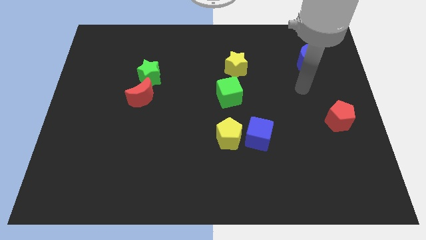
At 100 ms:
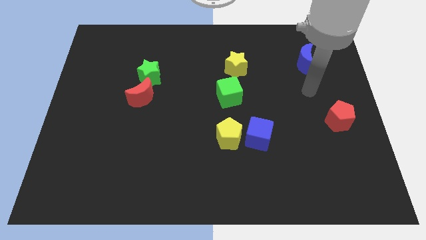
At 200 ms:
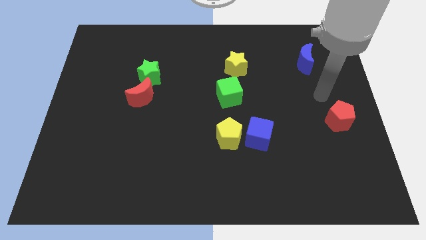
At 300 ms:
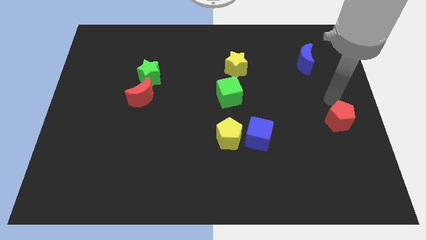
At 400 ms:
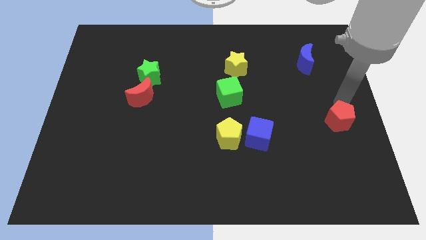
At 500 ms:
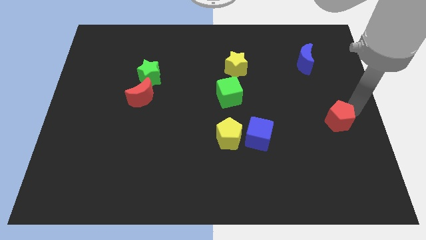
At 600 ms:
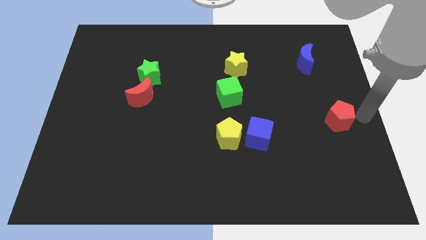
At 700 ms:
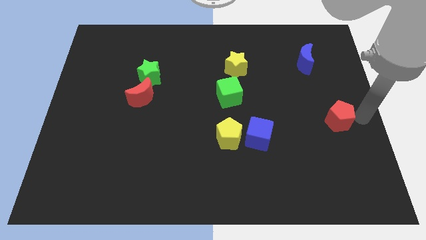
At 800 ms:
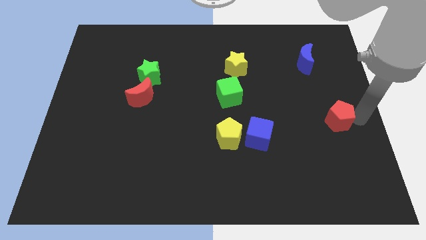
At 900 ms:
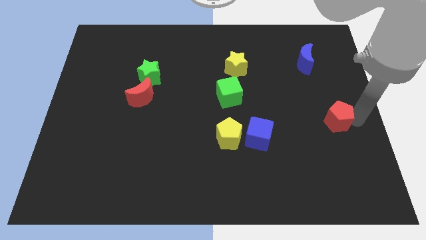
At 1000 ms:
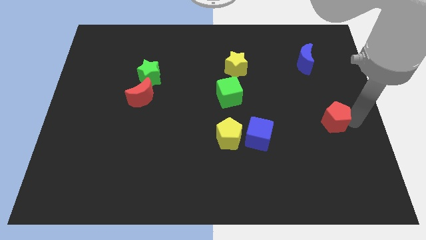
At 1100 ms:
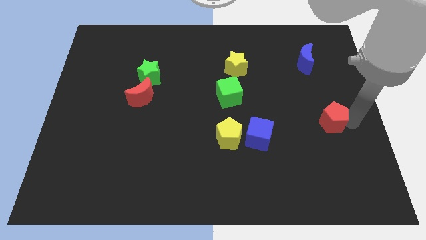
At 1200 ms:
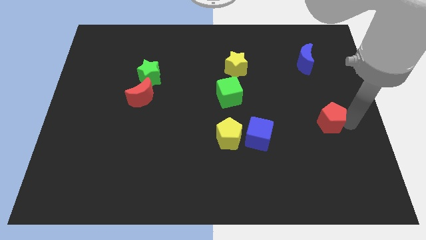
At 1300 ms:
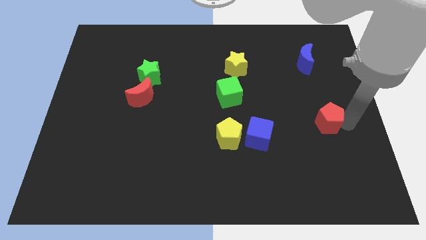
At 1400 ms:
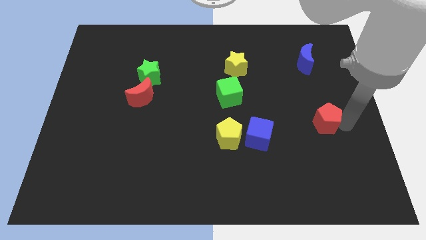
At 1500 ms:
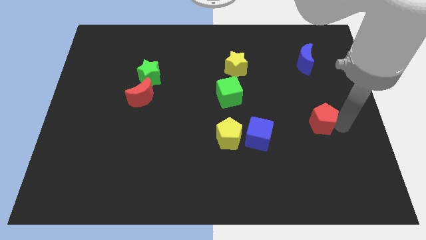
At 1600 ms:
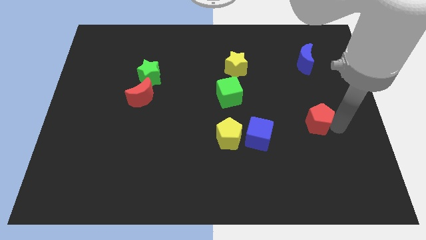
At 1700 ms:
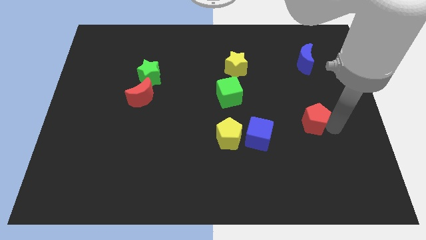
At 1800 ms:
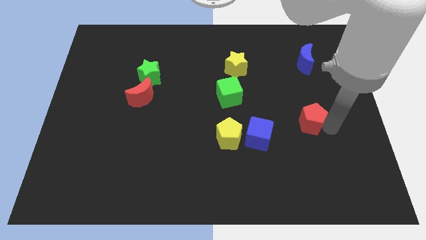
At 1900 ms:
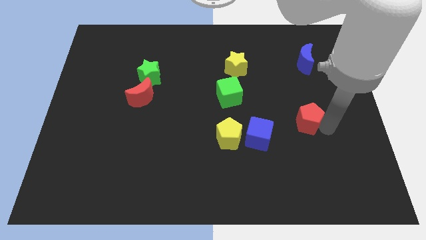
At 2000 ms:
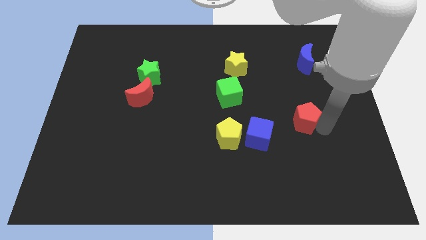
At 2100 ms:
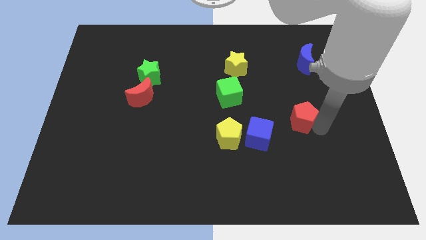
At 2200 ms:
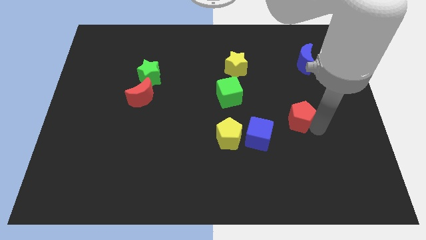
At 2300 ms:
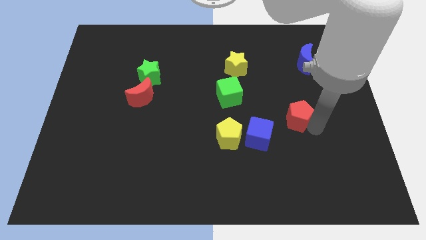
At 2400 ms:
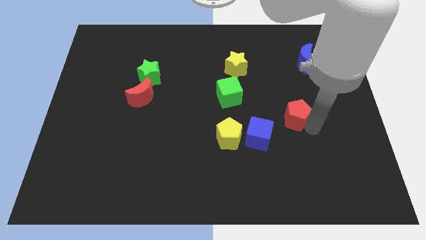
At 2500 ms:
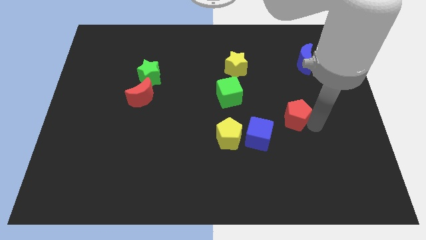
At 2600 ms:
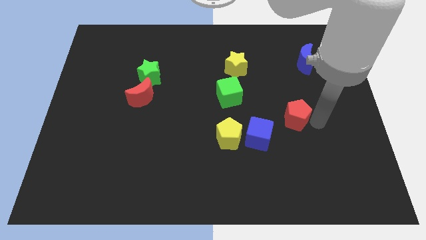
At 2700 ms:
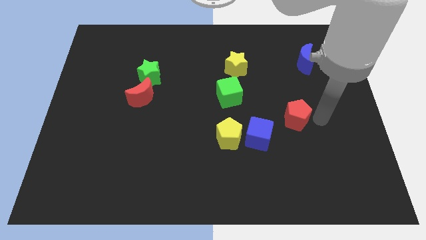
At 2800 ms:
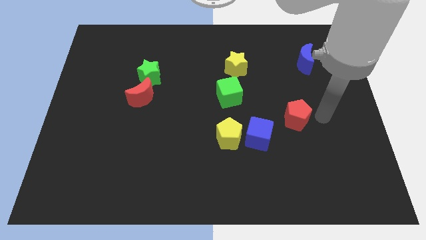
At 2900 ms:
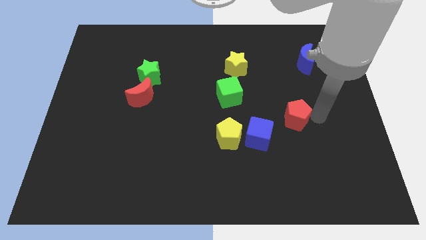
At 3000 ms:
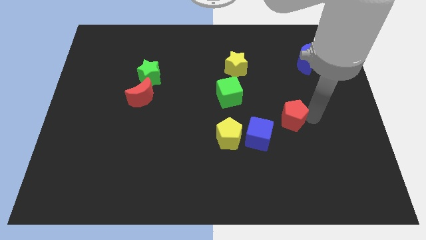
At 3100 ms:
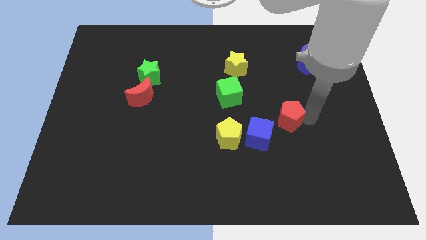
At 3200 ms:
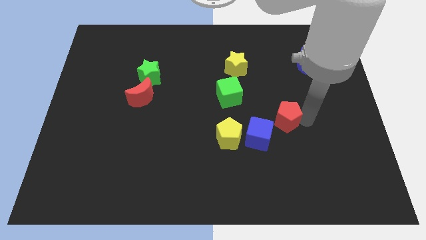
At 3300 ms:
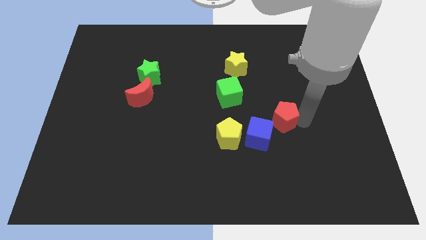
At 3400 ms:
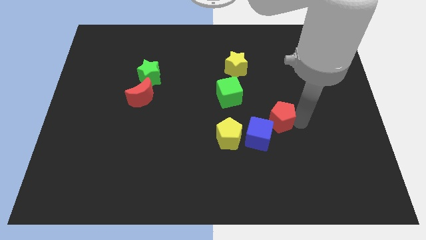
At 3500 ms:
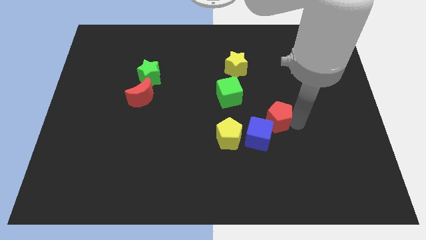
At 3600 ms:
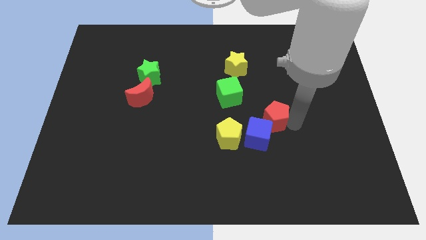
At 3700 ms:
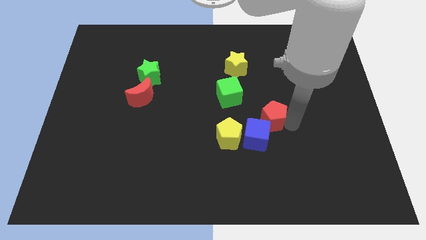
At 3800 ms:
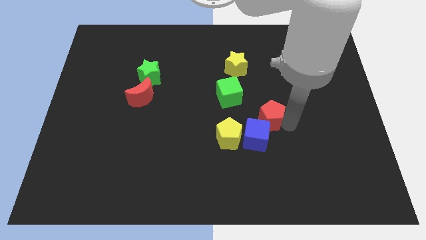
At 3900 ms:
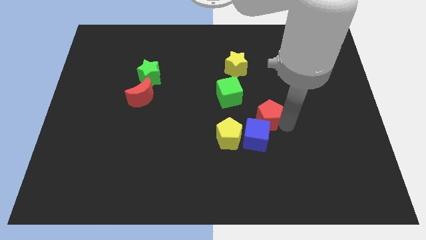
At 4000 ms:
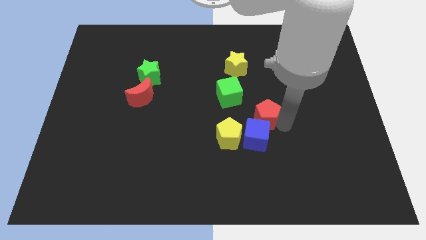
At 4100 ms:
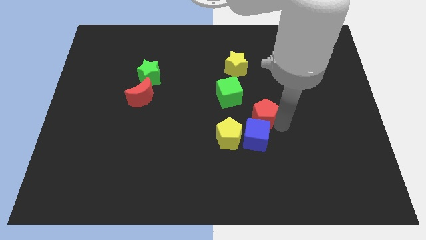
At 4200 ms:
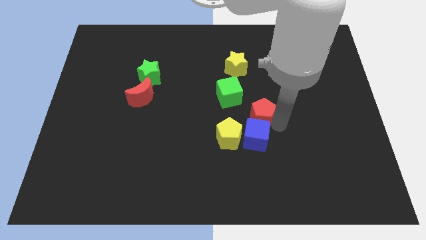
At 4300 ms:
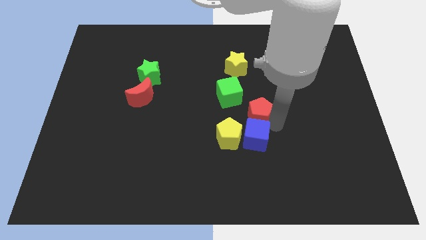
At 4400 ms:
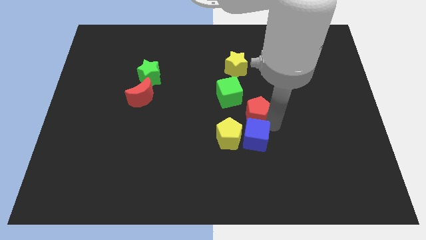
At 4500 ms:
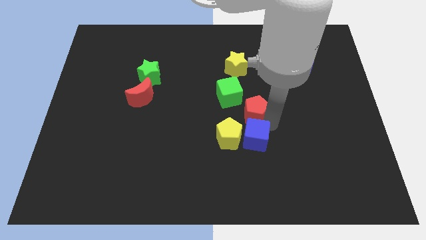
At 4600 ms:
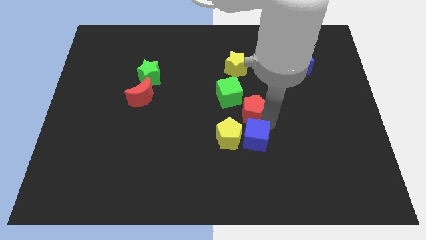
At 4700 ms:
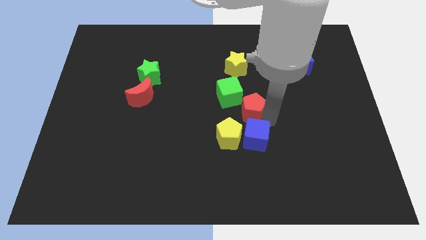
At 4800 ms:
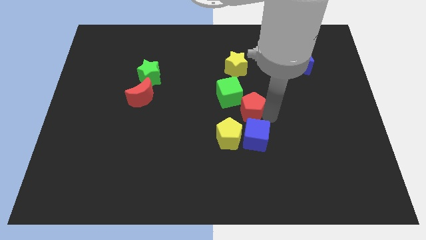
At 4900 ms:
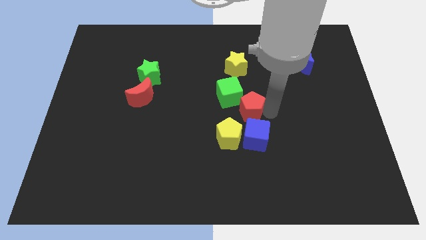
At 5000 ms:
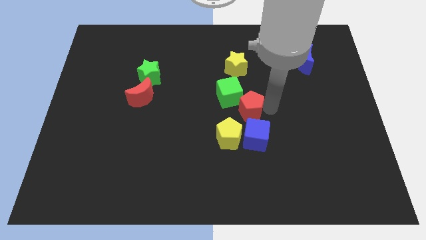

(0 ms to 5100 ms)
slide the red pentagon to the left

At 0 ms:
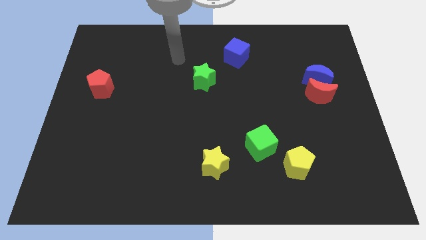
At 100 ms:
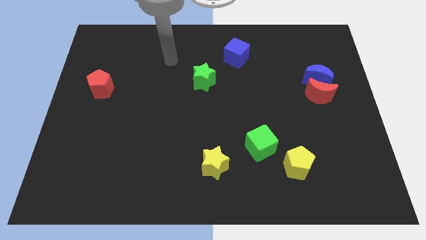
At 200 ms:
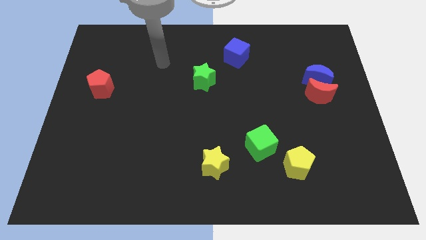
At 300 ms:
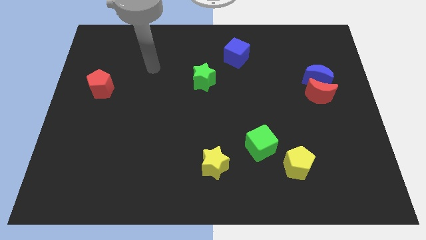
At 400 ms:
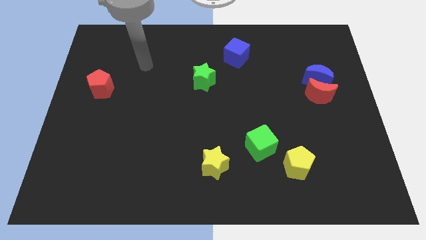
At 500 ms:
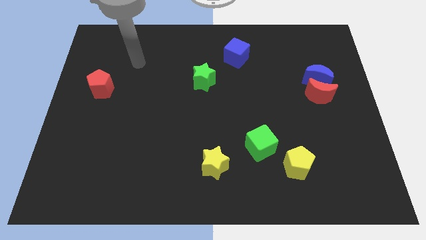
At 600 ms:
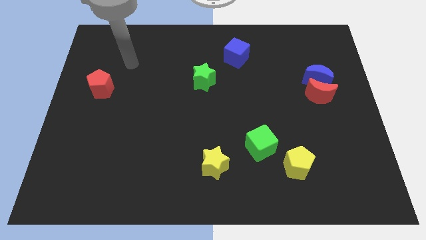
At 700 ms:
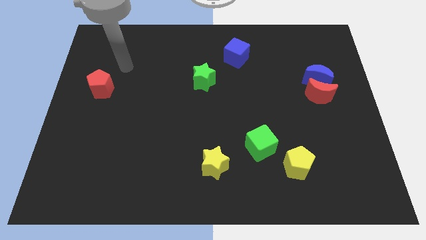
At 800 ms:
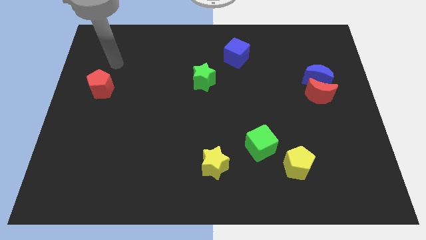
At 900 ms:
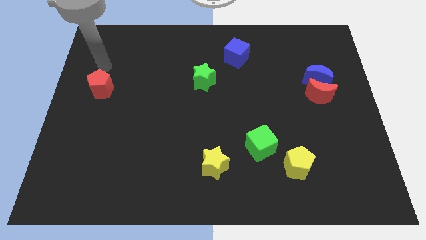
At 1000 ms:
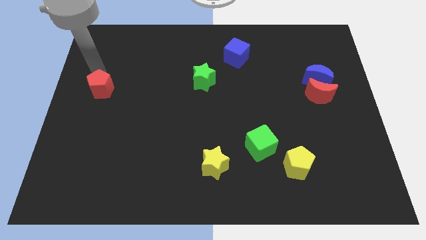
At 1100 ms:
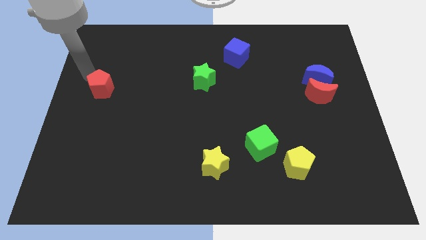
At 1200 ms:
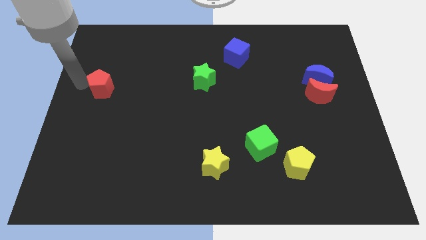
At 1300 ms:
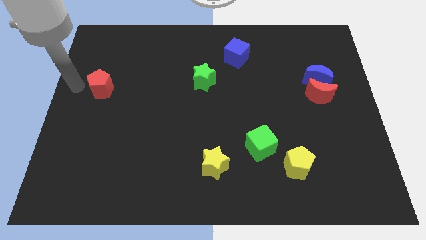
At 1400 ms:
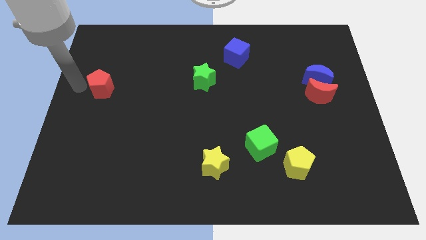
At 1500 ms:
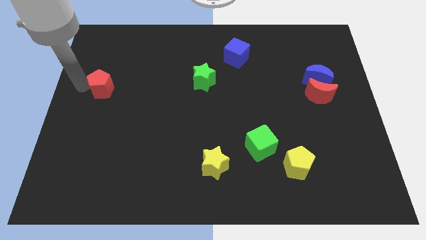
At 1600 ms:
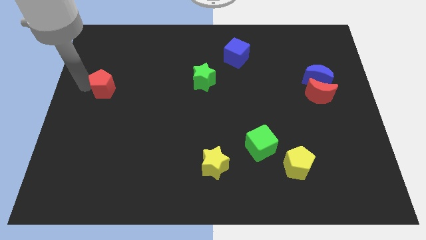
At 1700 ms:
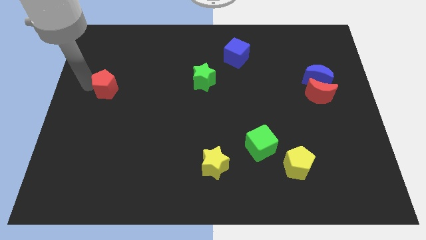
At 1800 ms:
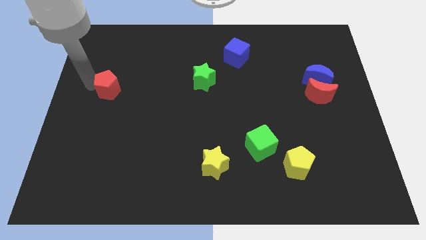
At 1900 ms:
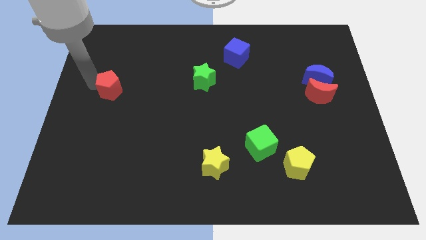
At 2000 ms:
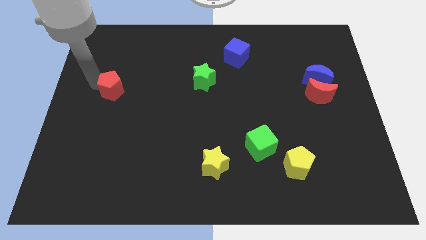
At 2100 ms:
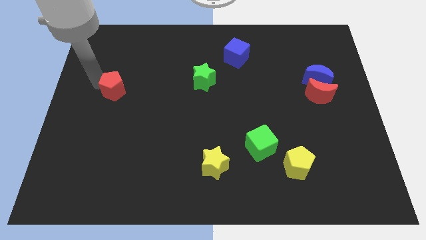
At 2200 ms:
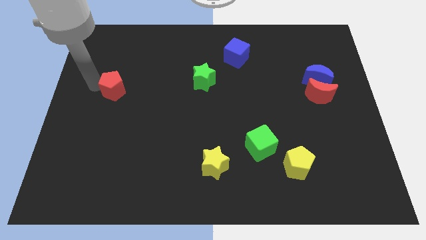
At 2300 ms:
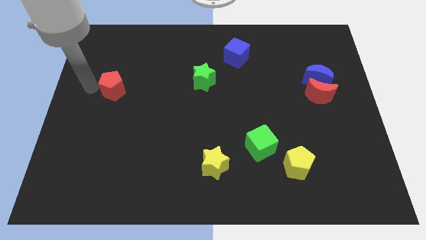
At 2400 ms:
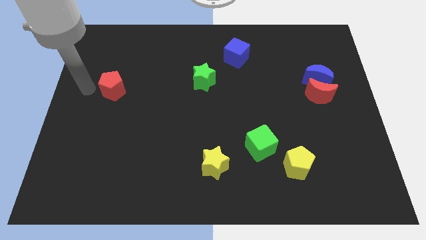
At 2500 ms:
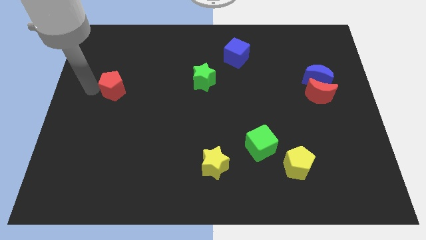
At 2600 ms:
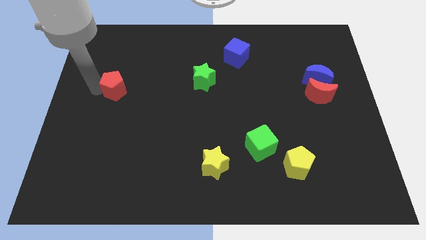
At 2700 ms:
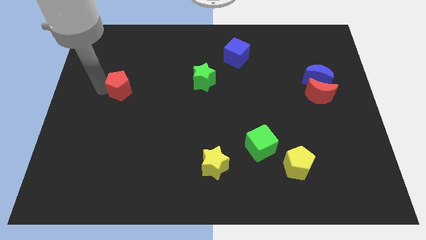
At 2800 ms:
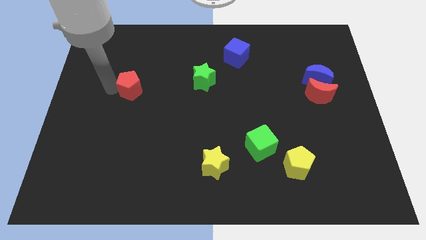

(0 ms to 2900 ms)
slide the red pentagon to the right slightly

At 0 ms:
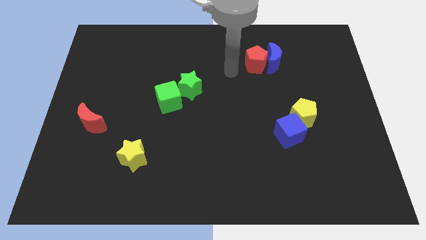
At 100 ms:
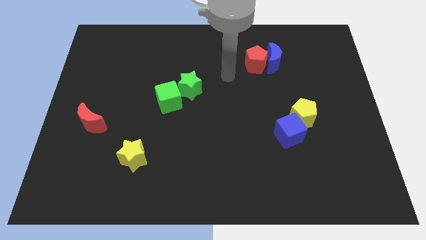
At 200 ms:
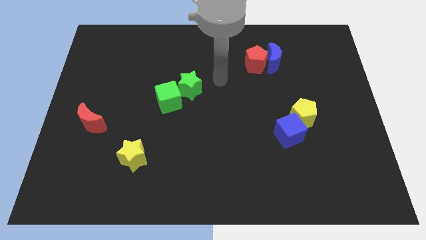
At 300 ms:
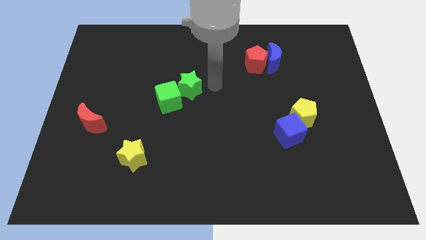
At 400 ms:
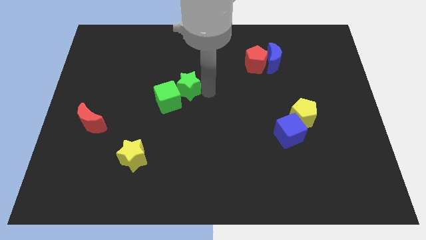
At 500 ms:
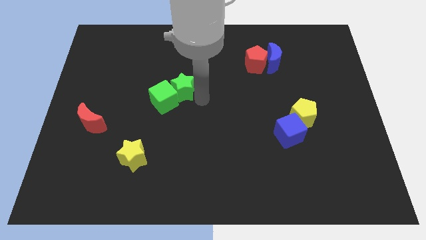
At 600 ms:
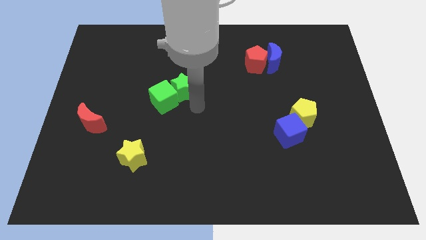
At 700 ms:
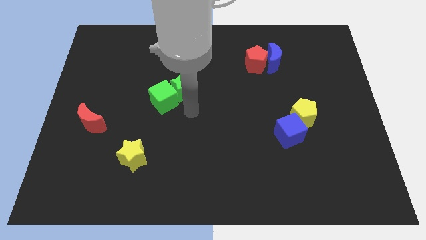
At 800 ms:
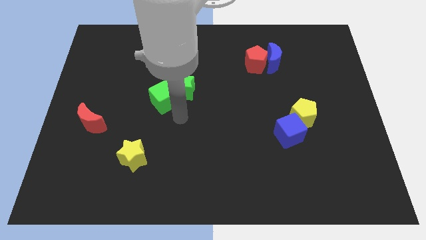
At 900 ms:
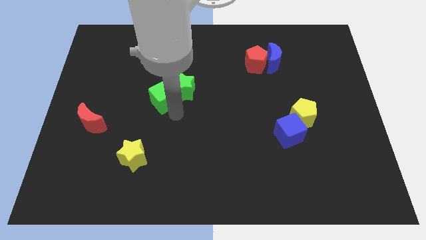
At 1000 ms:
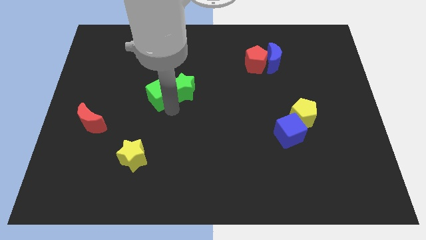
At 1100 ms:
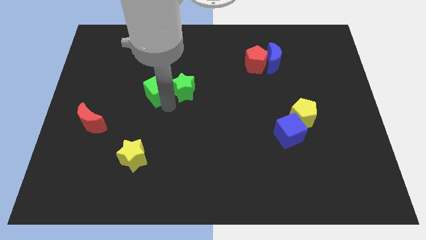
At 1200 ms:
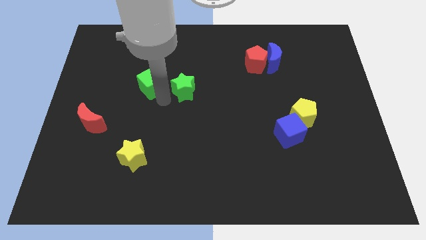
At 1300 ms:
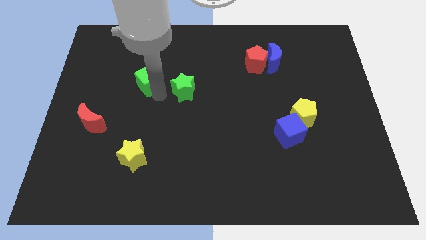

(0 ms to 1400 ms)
push the green cube slightly diagonally up and to the left
